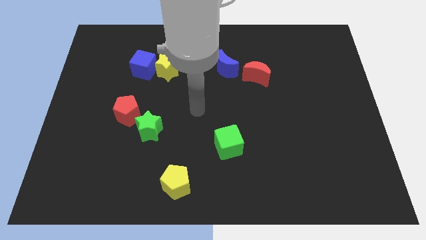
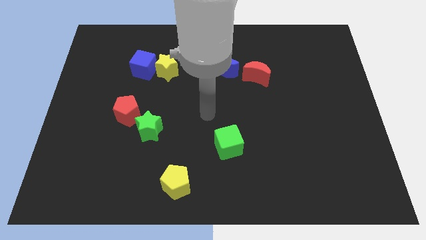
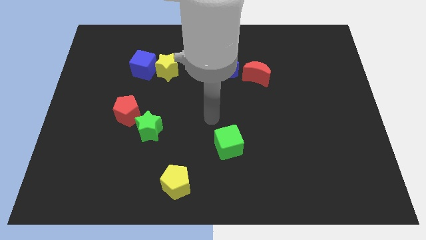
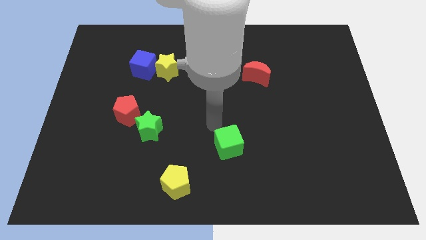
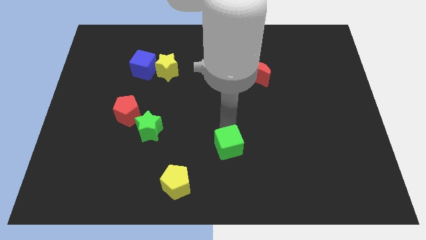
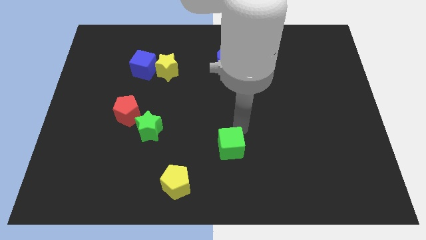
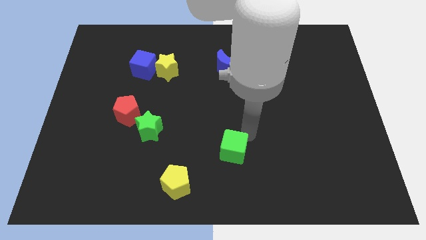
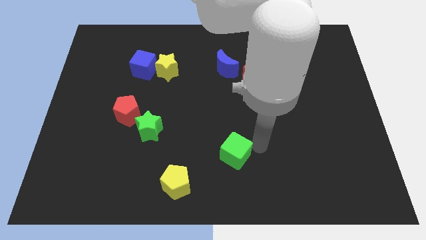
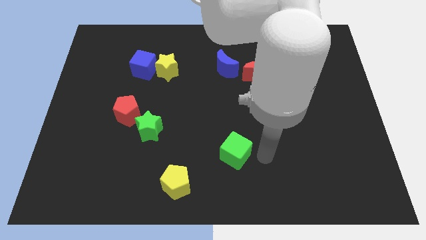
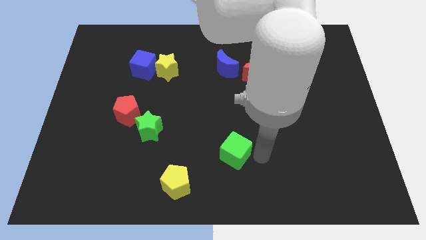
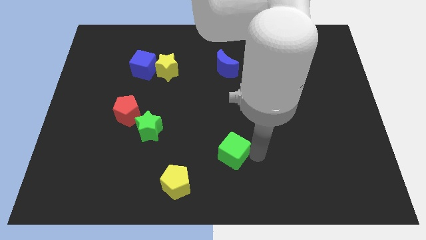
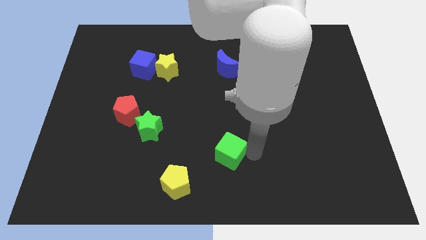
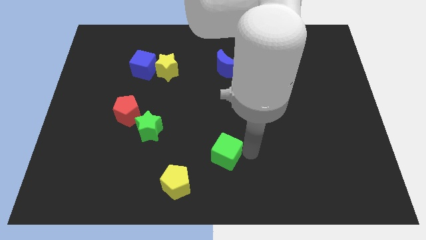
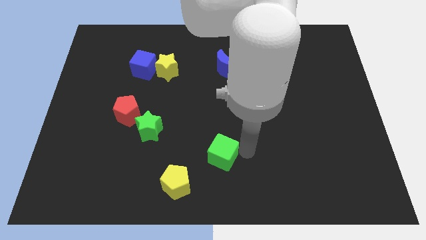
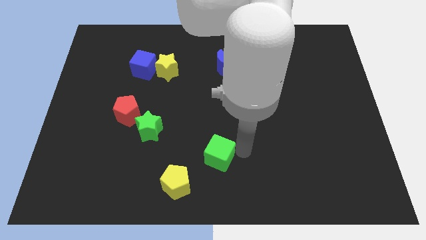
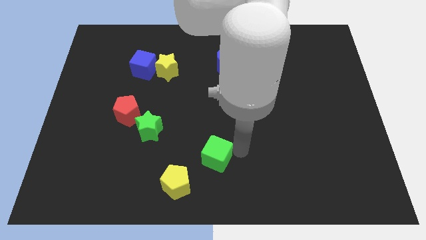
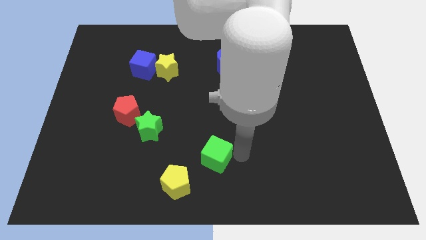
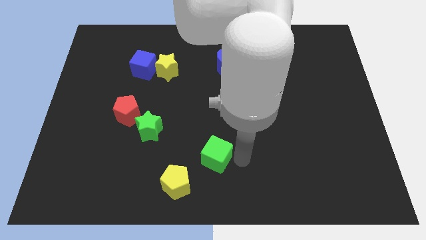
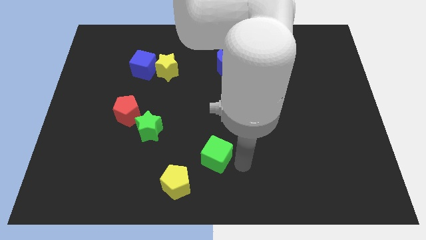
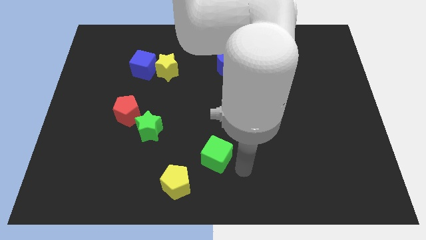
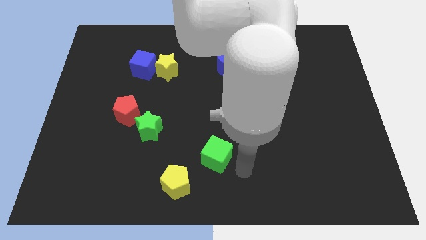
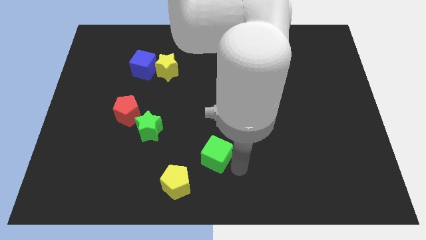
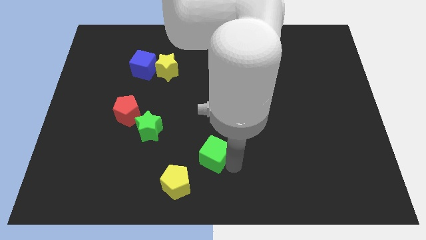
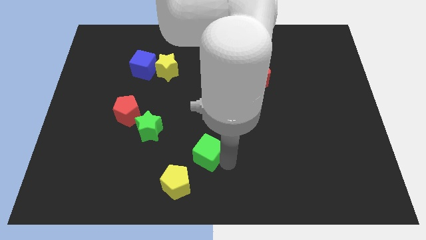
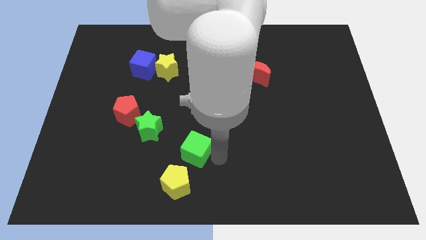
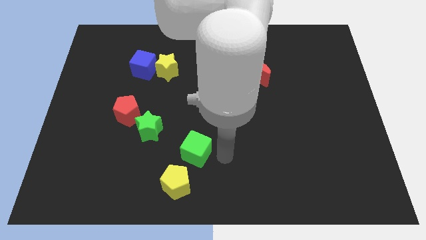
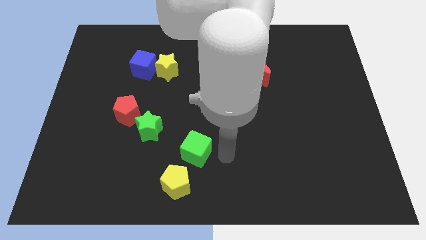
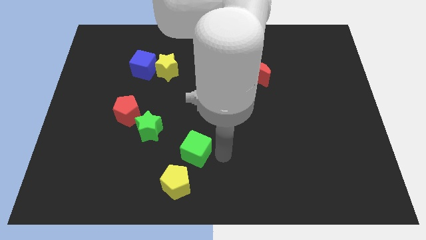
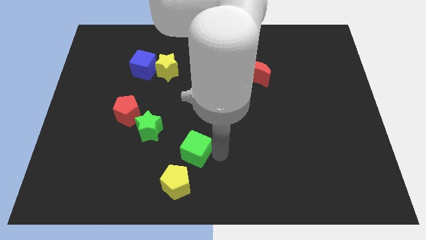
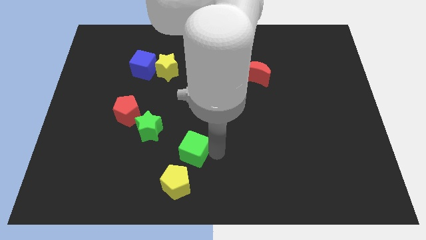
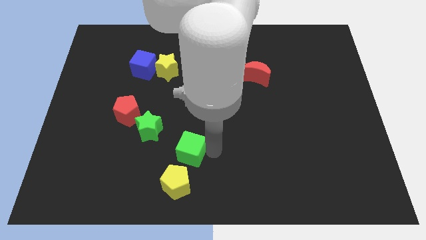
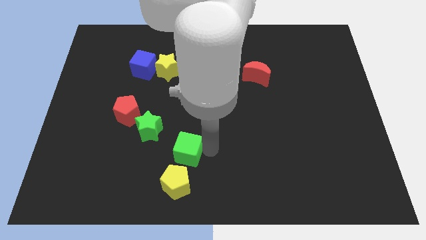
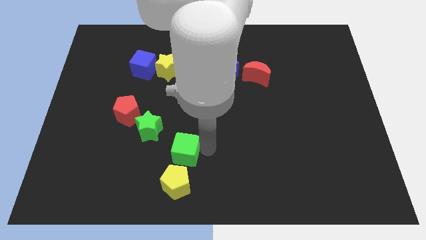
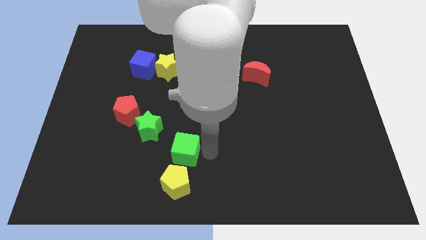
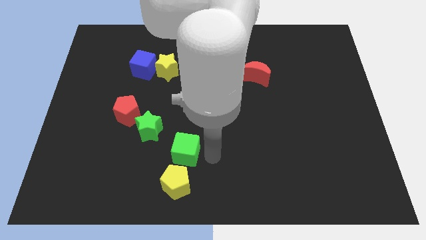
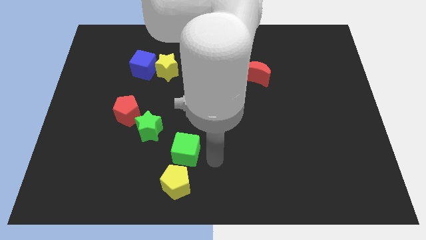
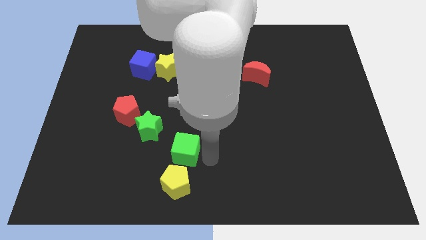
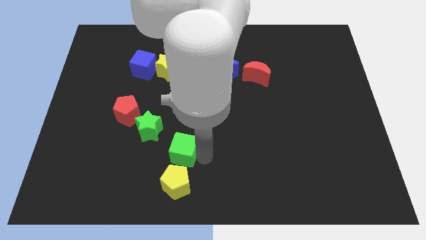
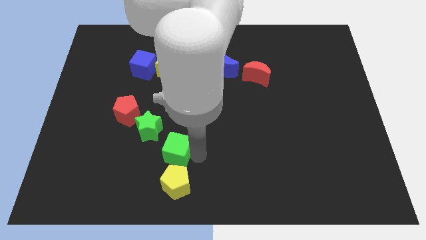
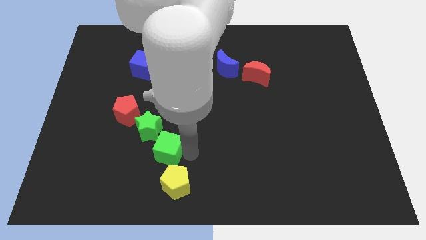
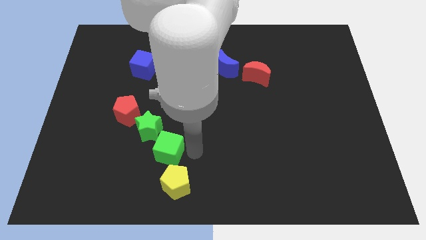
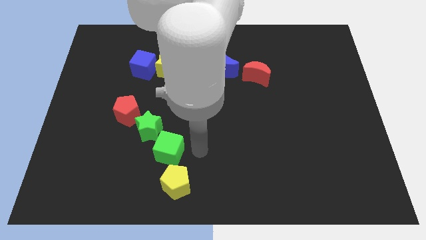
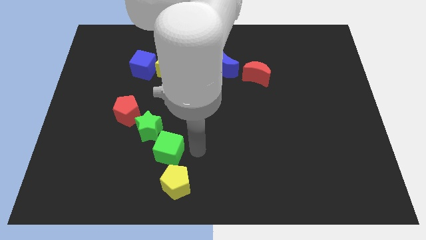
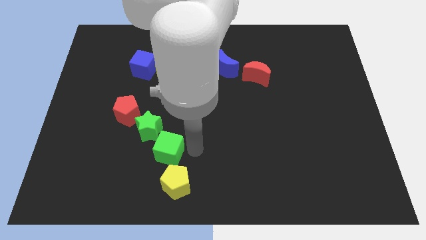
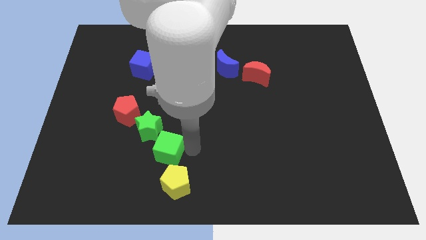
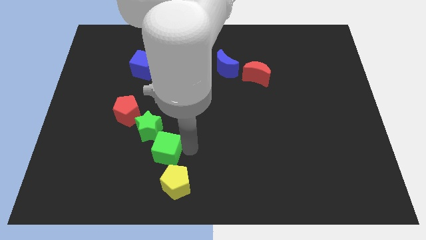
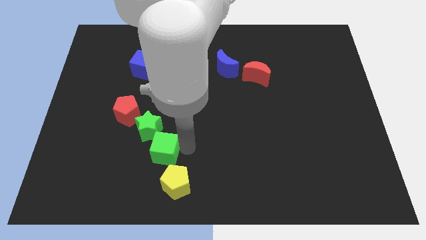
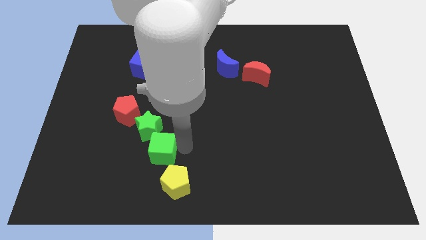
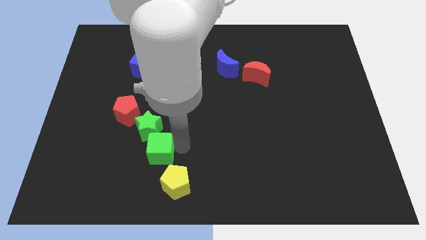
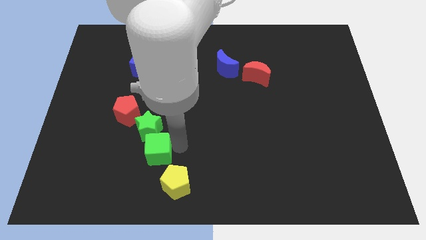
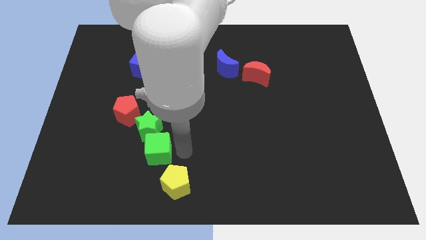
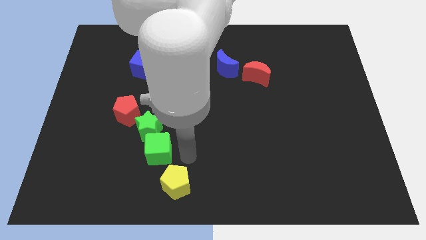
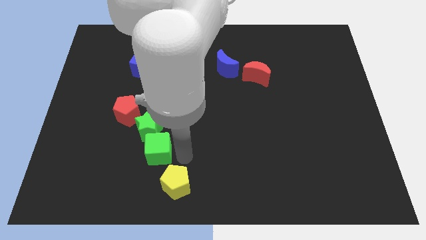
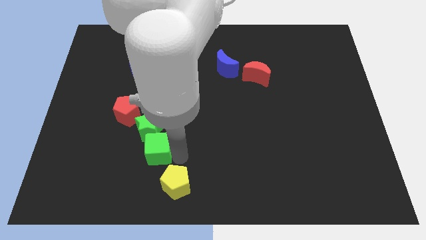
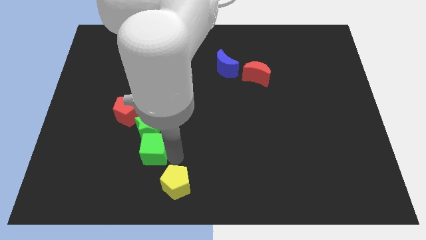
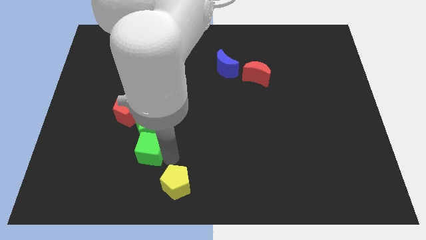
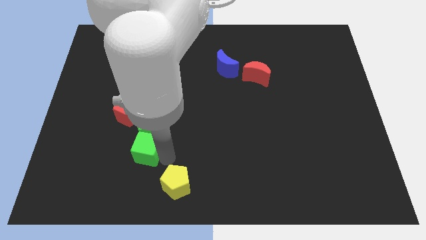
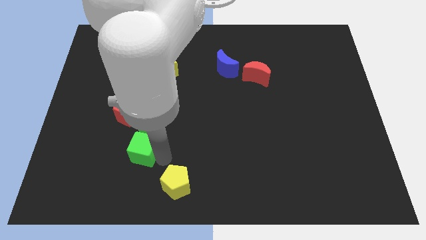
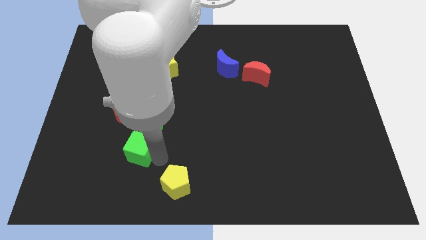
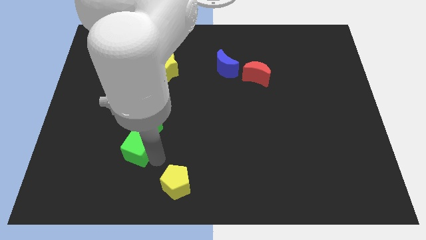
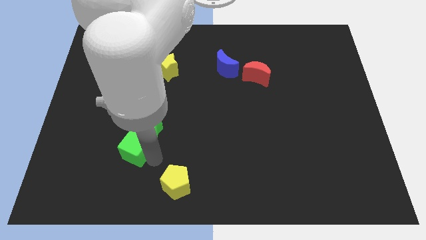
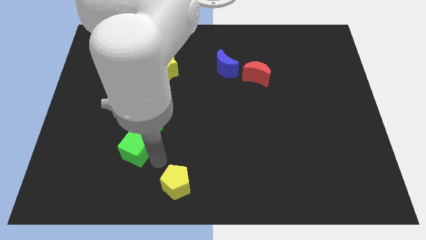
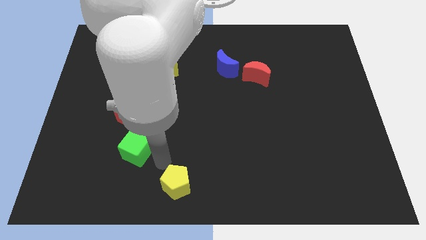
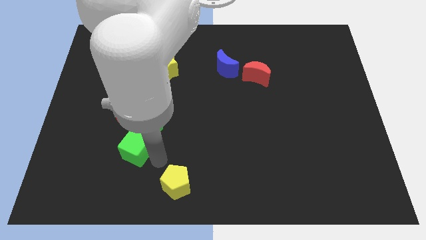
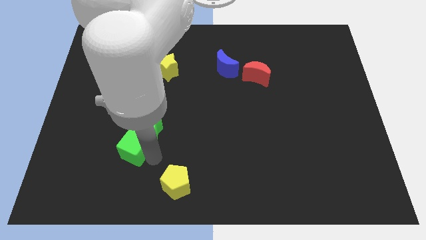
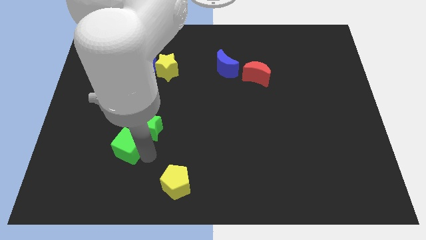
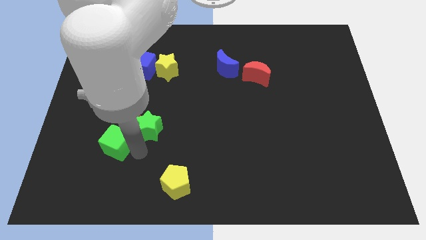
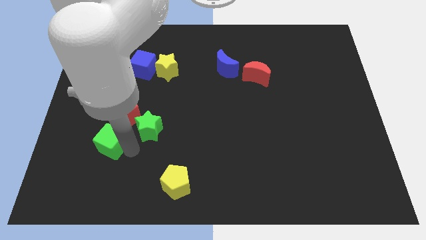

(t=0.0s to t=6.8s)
move the green cube diagonally down and to the left of the red pentagon
